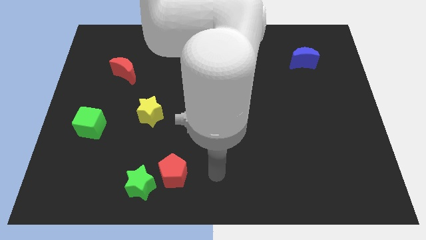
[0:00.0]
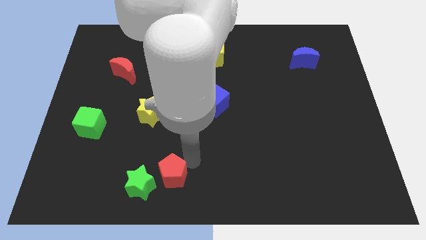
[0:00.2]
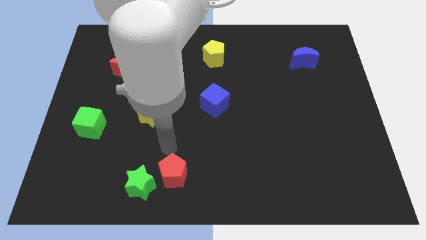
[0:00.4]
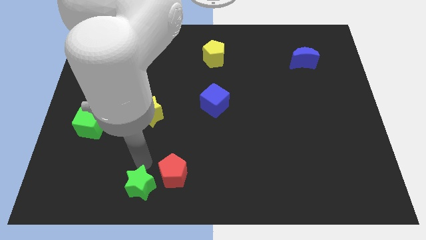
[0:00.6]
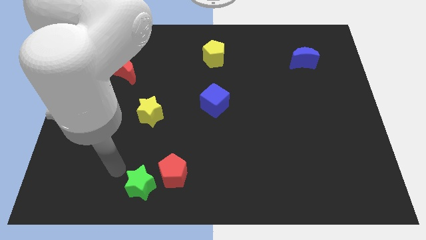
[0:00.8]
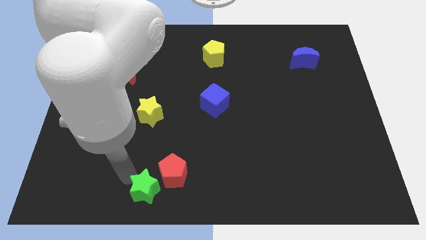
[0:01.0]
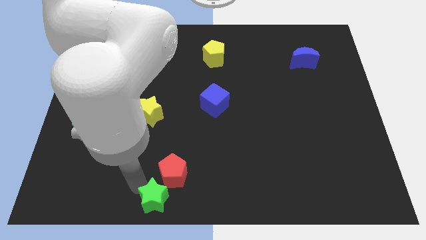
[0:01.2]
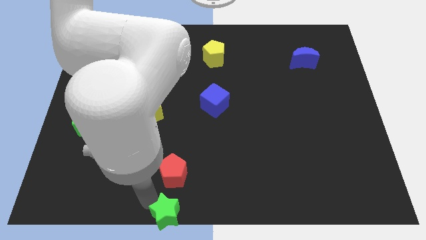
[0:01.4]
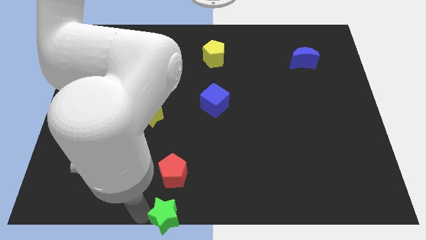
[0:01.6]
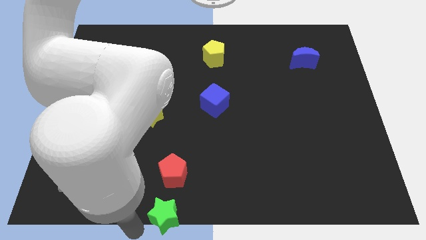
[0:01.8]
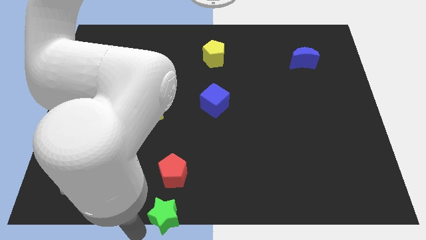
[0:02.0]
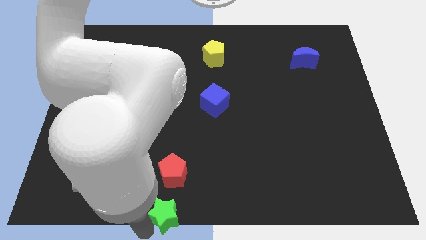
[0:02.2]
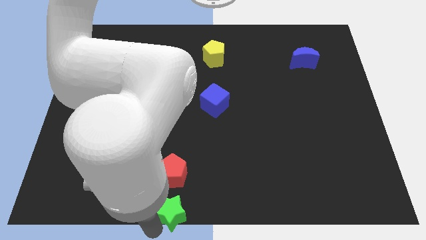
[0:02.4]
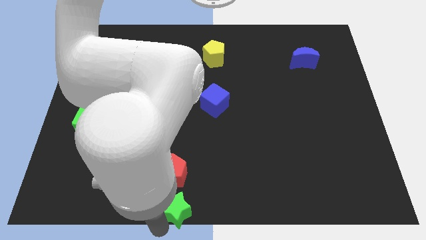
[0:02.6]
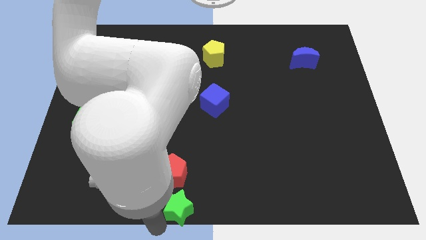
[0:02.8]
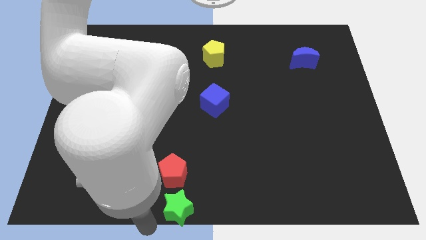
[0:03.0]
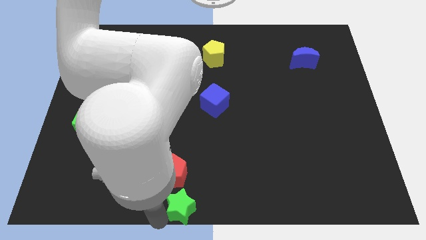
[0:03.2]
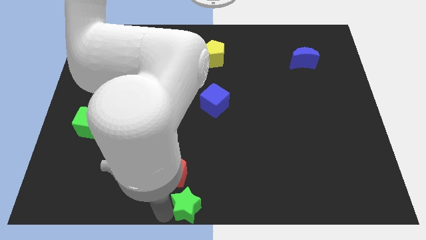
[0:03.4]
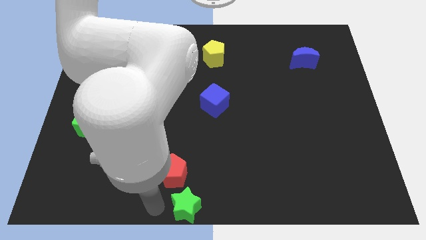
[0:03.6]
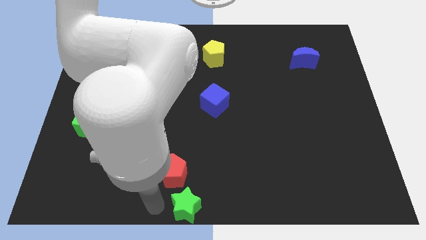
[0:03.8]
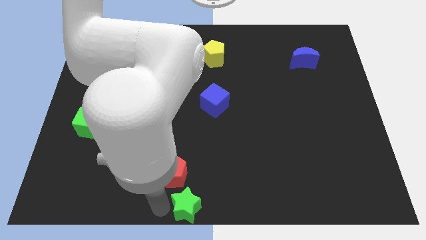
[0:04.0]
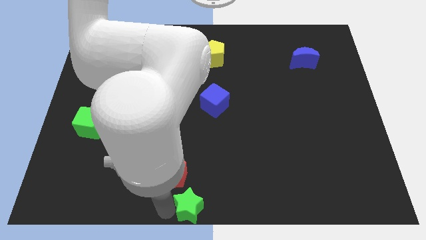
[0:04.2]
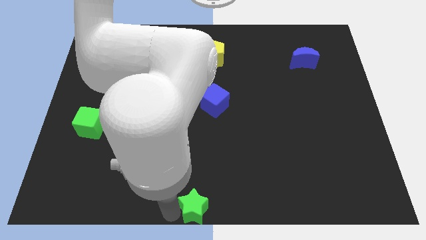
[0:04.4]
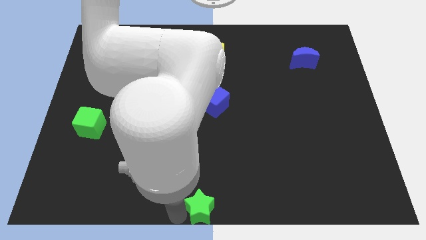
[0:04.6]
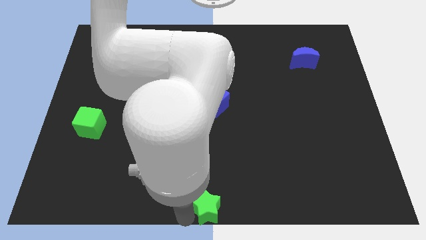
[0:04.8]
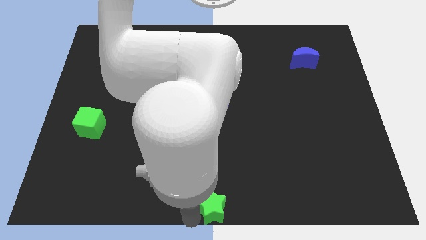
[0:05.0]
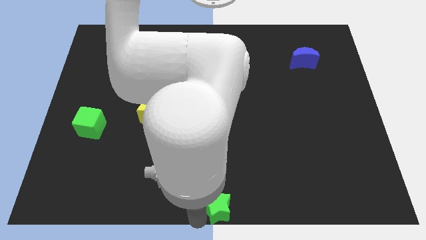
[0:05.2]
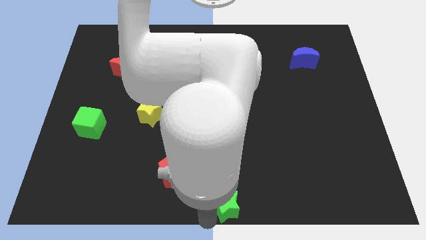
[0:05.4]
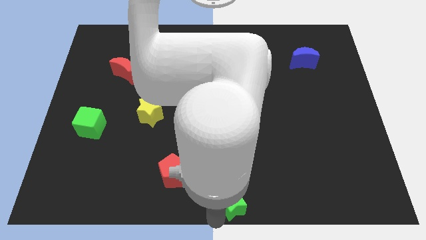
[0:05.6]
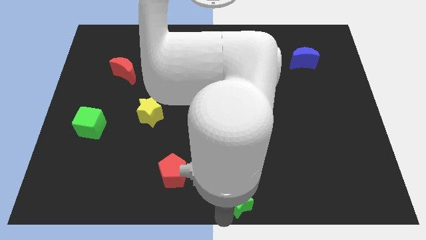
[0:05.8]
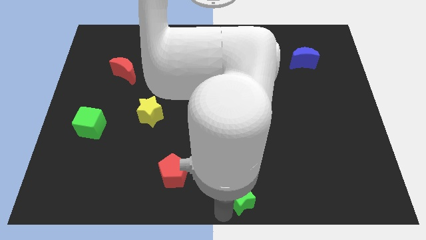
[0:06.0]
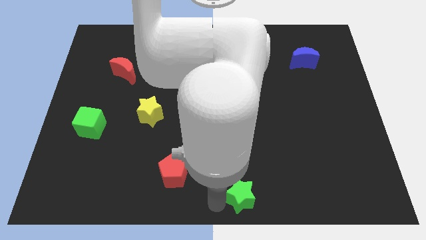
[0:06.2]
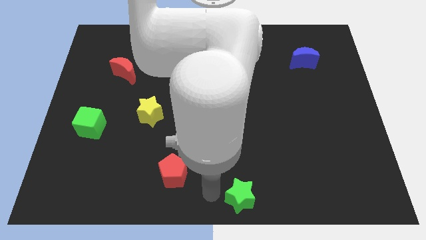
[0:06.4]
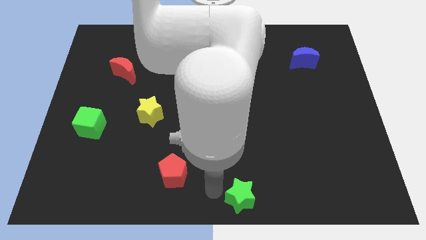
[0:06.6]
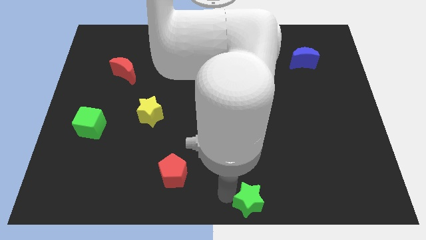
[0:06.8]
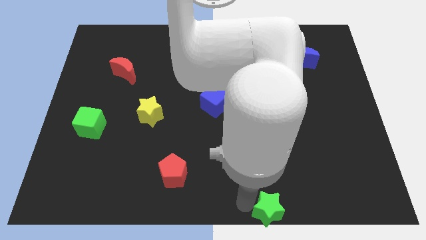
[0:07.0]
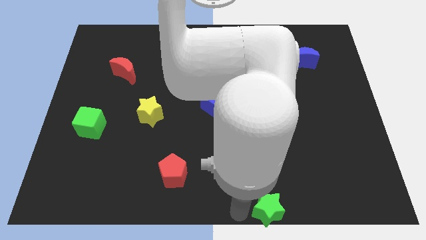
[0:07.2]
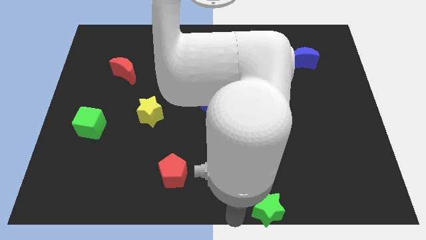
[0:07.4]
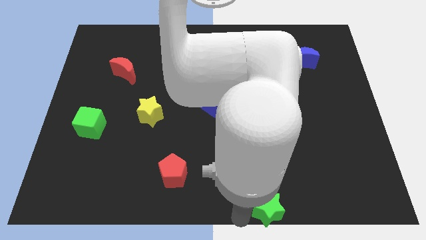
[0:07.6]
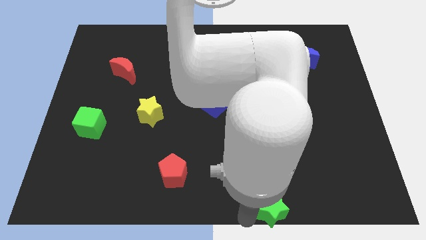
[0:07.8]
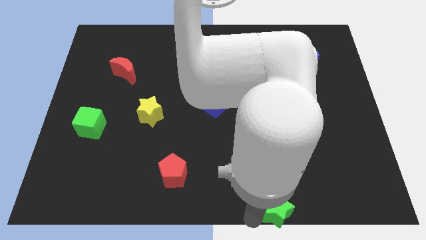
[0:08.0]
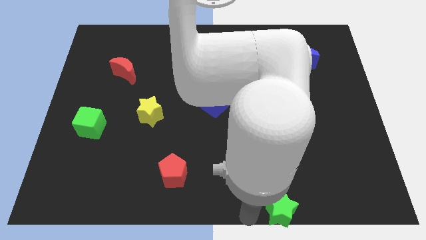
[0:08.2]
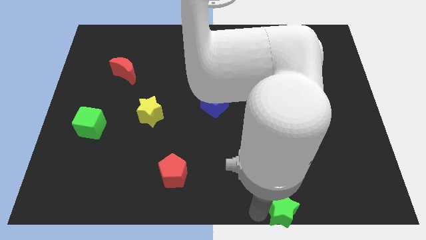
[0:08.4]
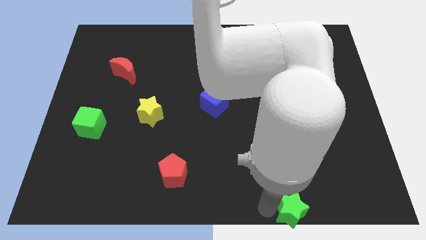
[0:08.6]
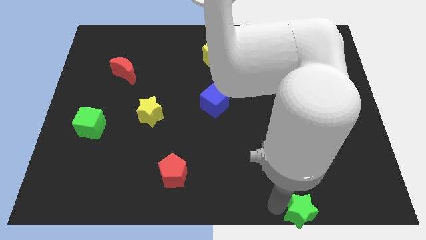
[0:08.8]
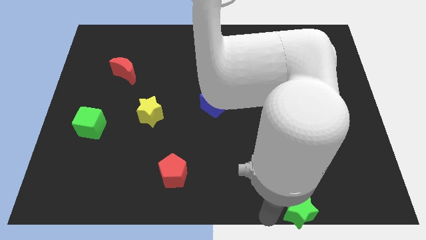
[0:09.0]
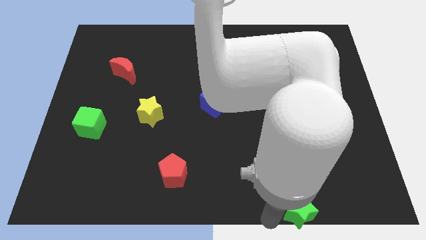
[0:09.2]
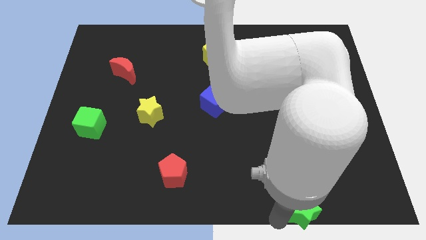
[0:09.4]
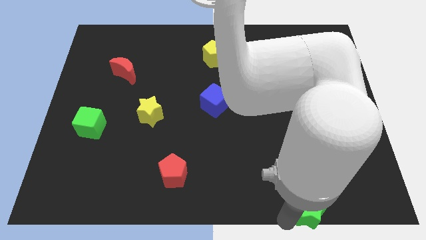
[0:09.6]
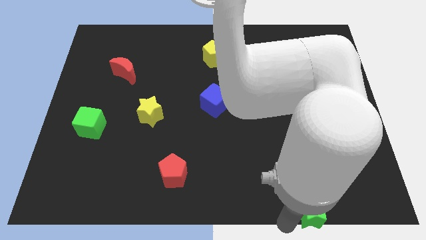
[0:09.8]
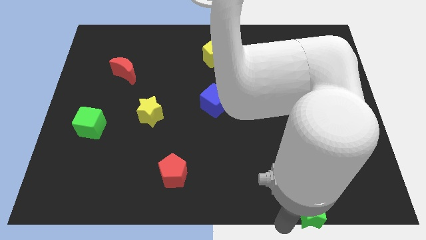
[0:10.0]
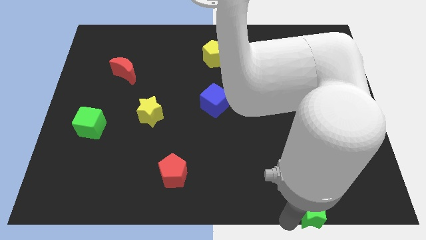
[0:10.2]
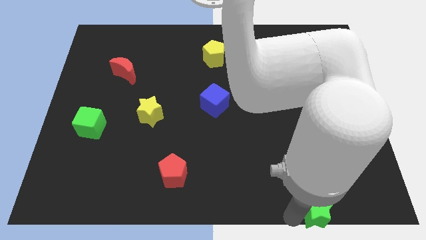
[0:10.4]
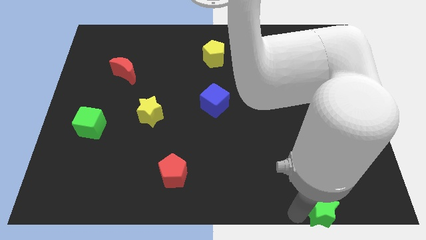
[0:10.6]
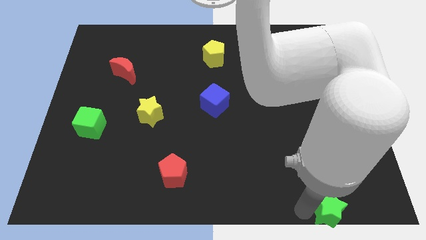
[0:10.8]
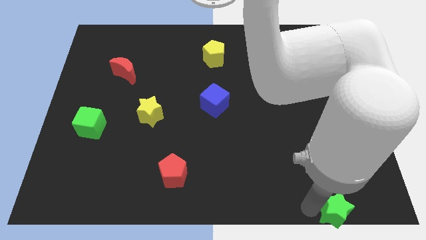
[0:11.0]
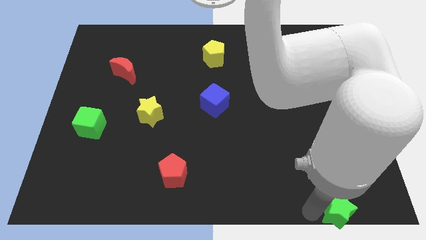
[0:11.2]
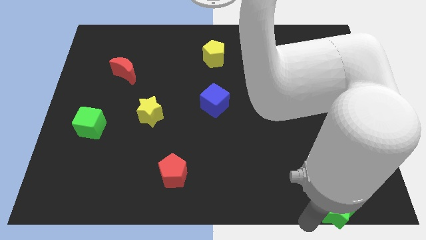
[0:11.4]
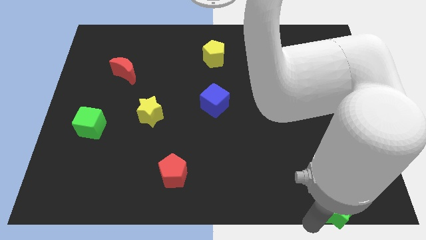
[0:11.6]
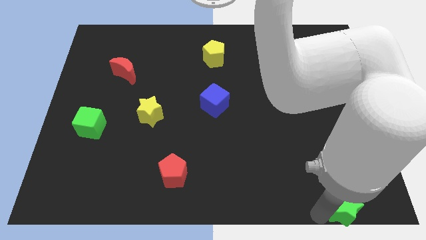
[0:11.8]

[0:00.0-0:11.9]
slide the green star to the bottom right

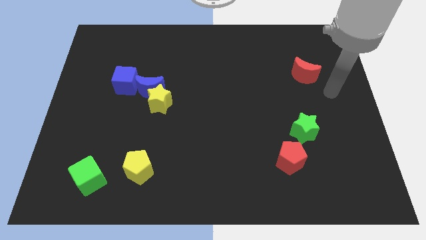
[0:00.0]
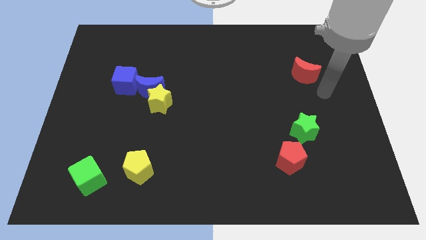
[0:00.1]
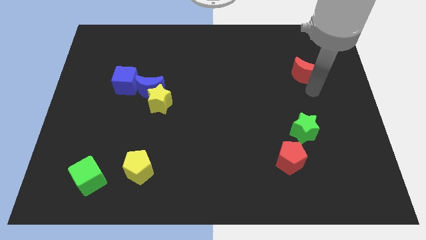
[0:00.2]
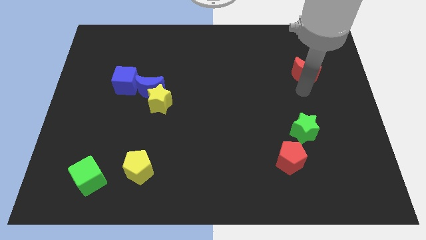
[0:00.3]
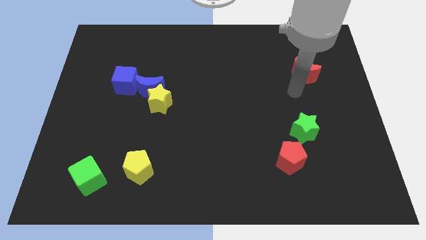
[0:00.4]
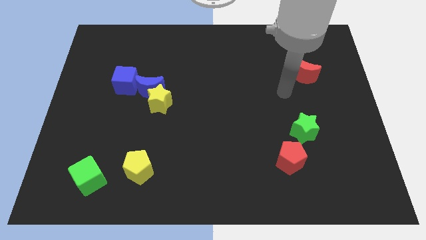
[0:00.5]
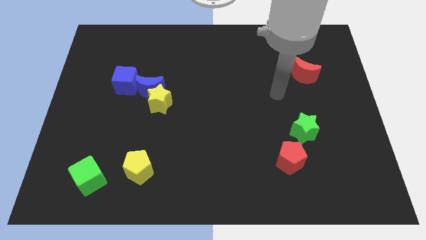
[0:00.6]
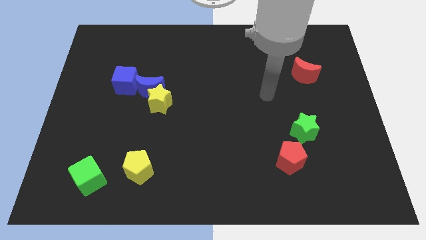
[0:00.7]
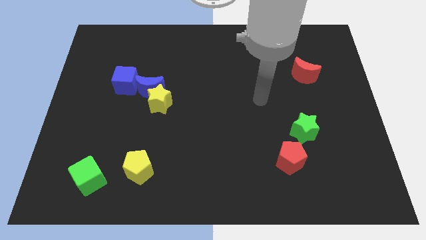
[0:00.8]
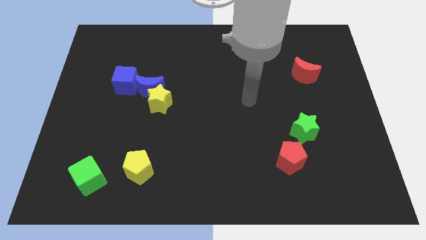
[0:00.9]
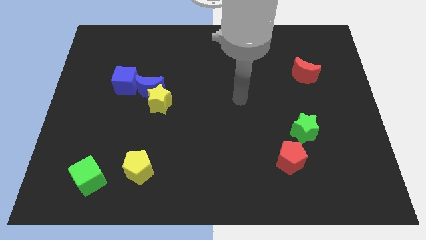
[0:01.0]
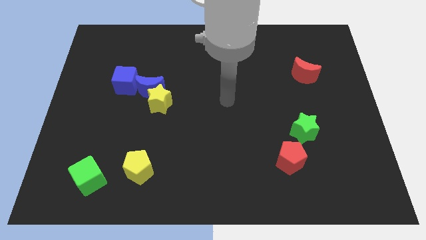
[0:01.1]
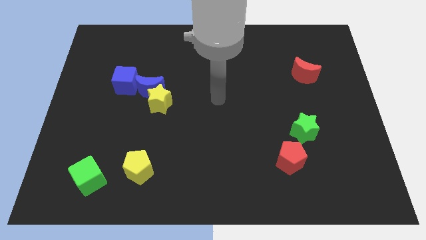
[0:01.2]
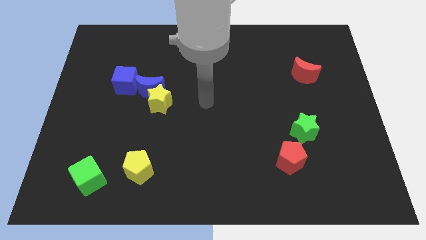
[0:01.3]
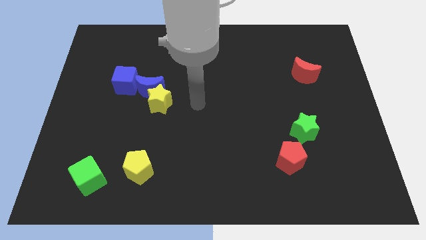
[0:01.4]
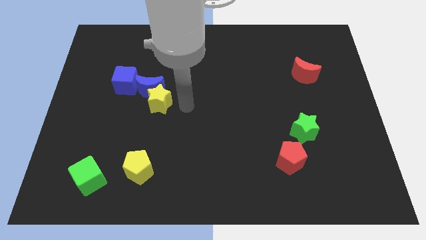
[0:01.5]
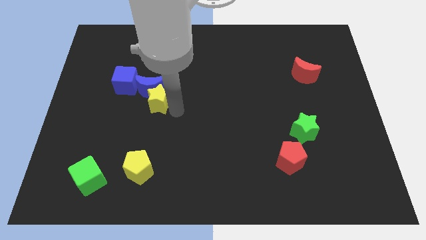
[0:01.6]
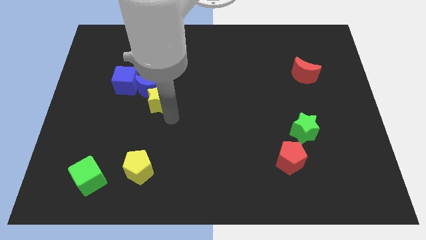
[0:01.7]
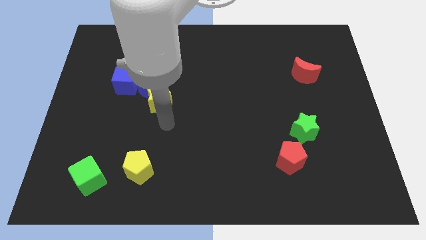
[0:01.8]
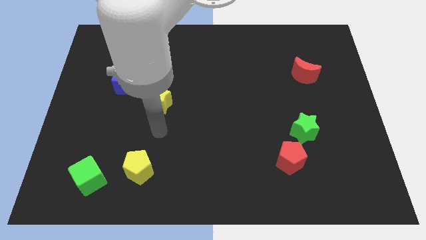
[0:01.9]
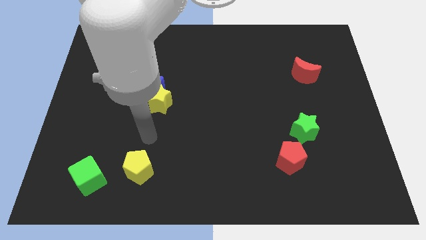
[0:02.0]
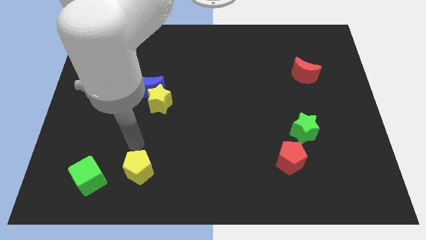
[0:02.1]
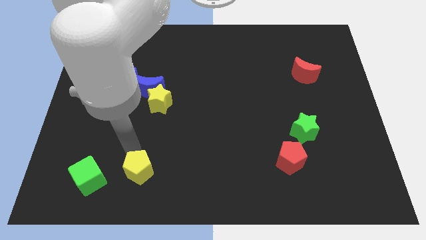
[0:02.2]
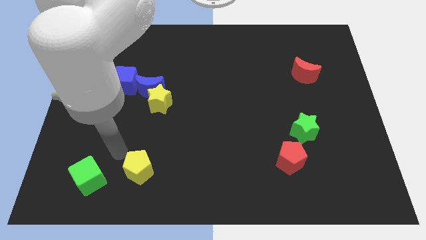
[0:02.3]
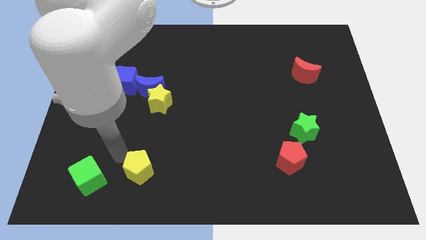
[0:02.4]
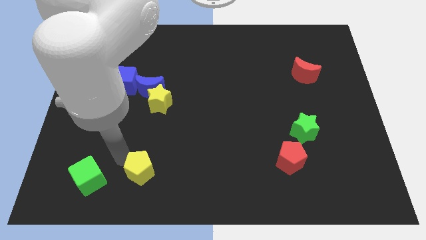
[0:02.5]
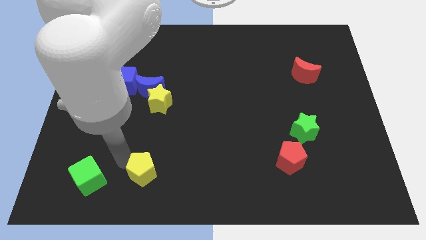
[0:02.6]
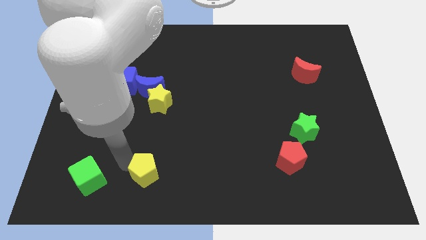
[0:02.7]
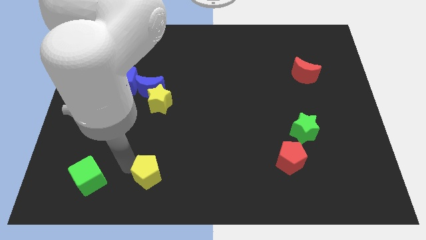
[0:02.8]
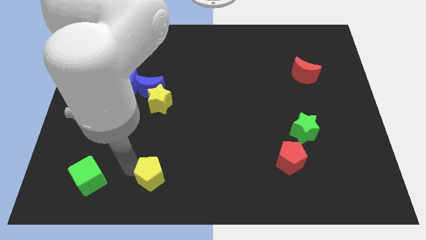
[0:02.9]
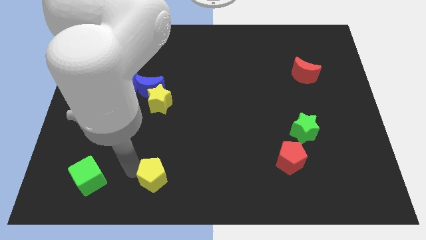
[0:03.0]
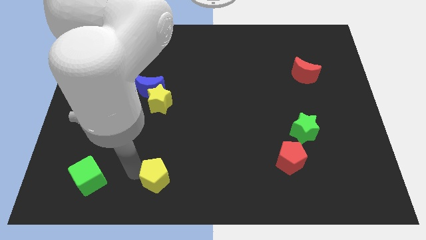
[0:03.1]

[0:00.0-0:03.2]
put the yellow pentagon to the bottom
